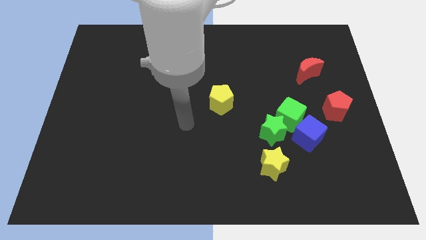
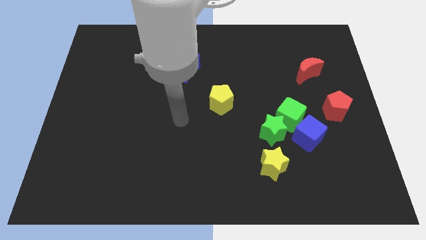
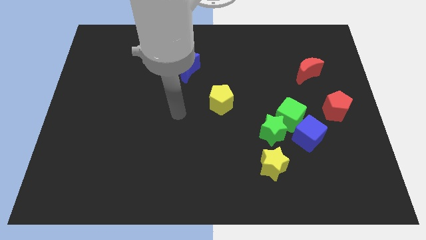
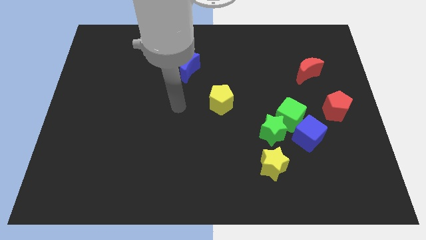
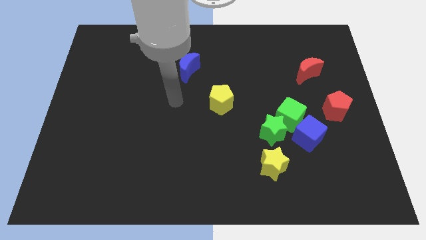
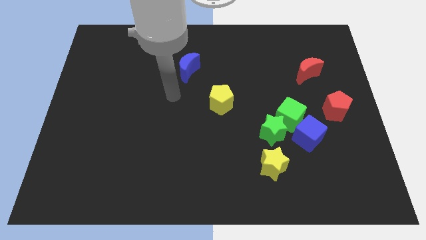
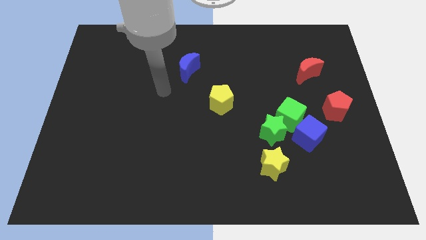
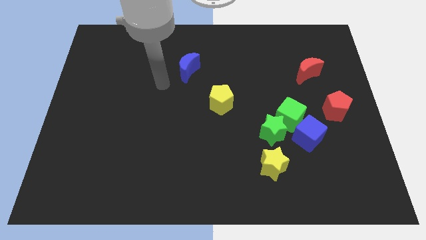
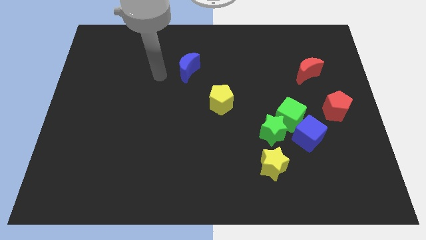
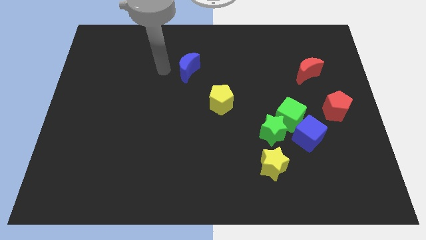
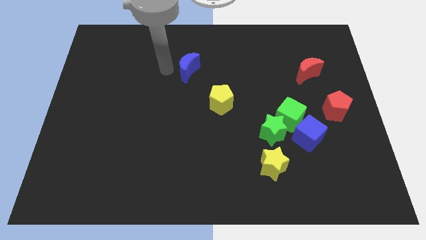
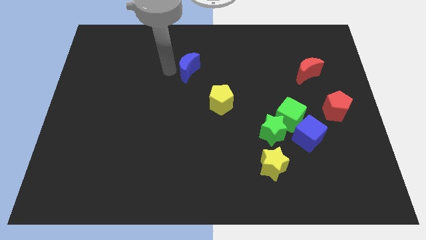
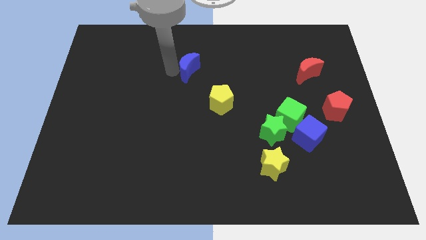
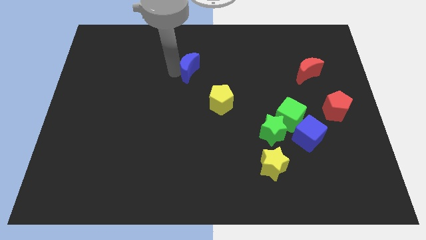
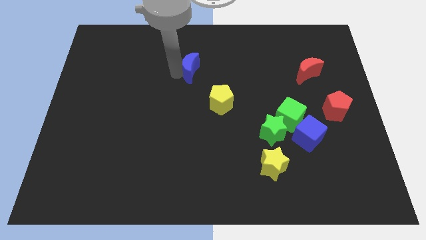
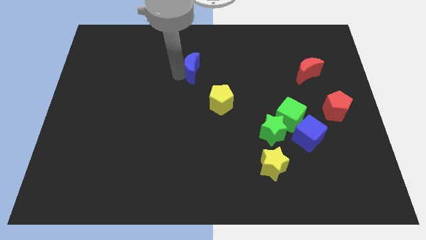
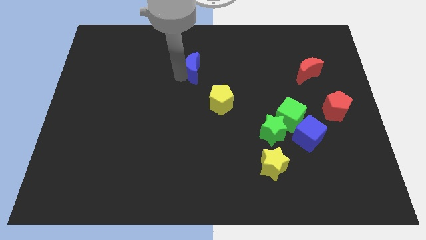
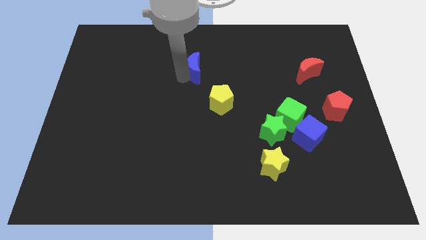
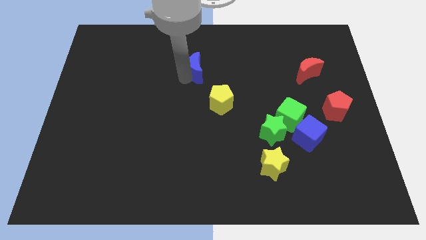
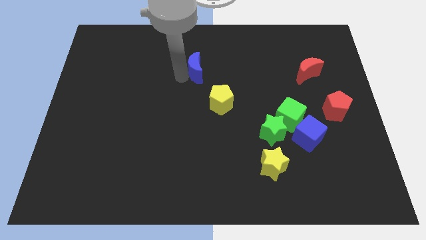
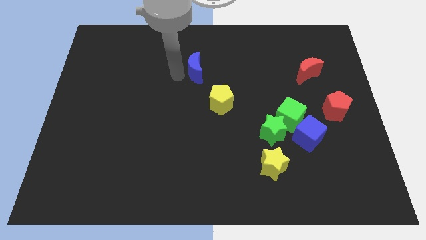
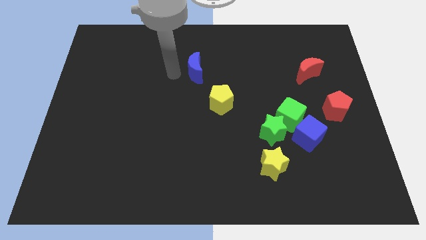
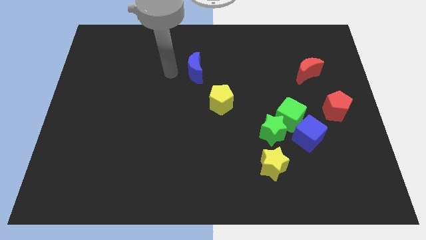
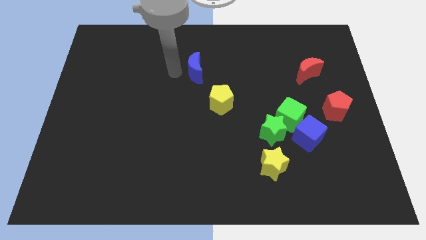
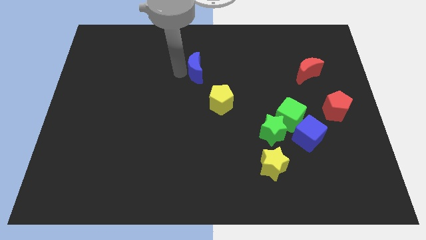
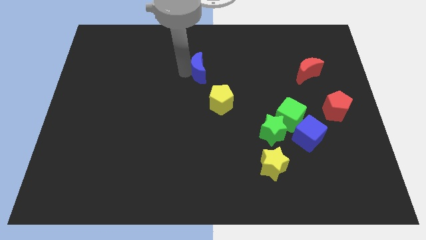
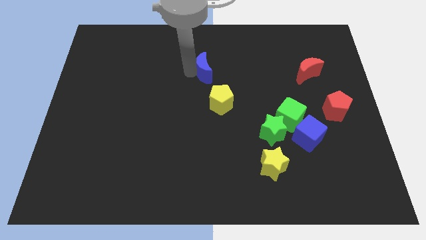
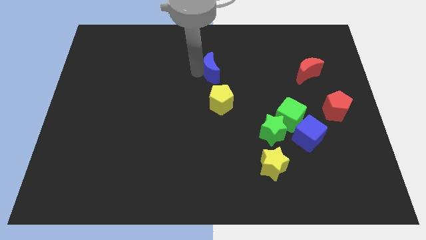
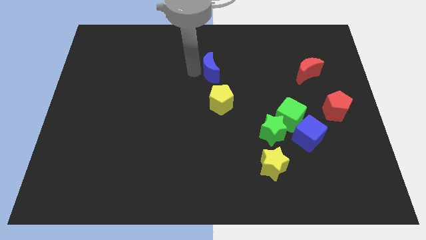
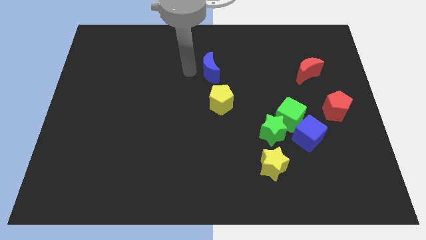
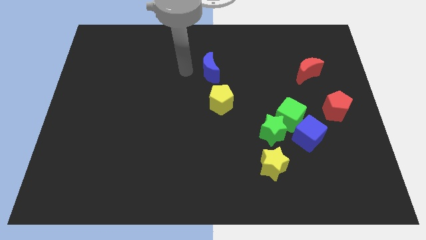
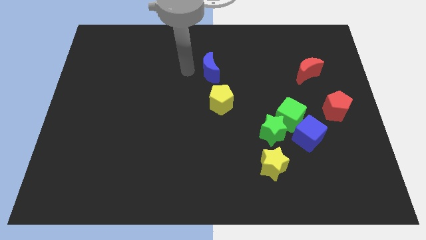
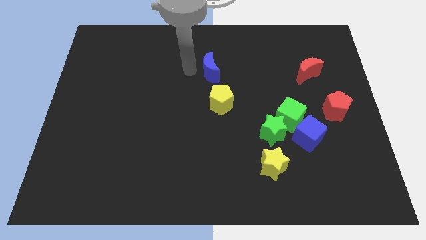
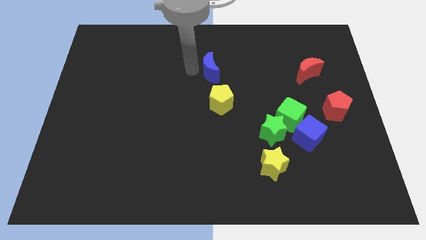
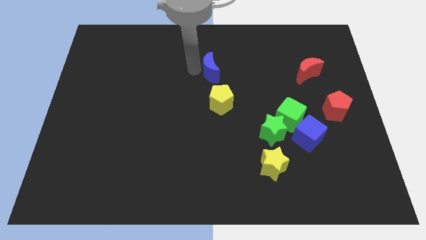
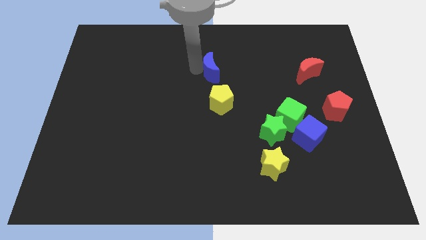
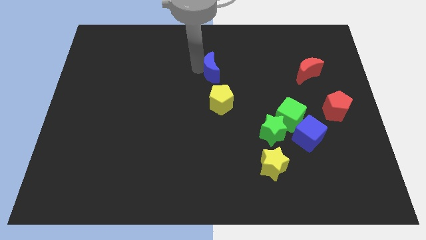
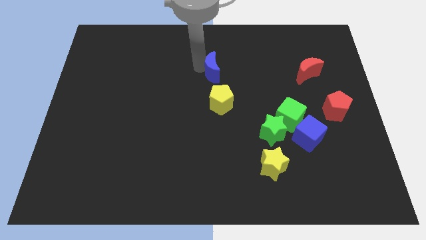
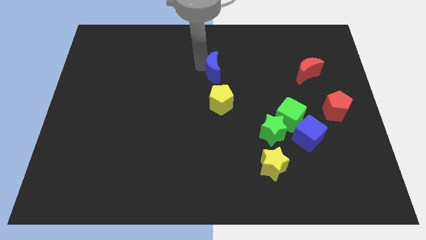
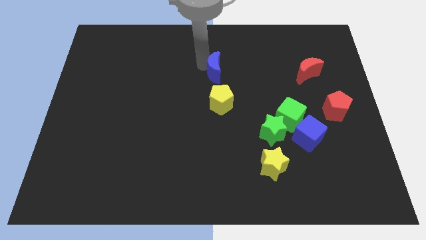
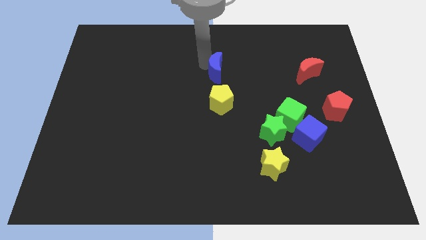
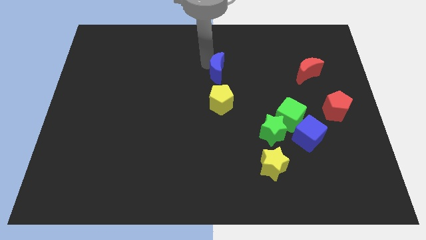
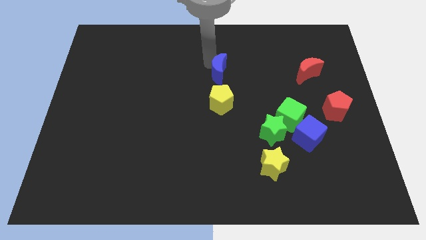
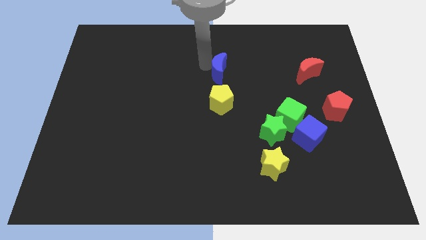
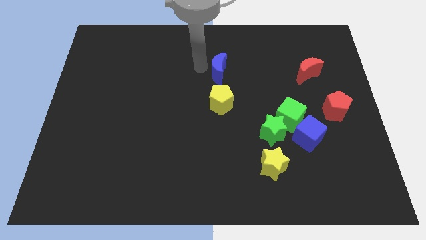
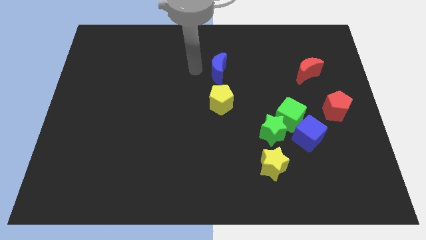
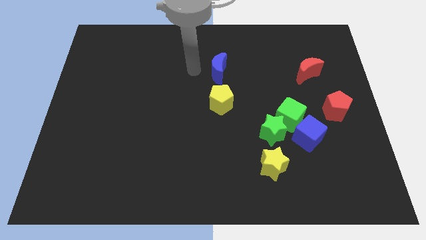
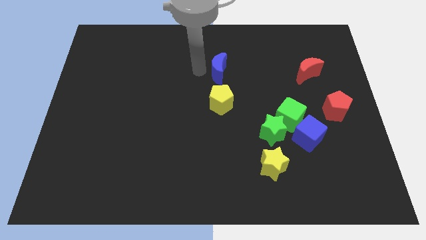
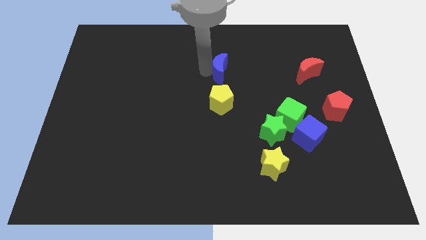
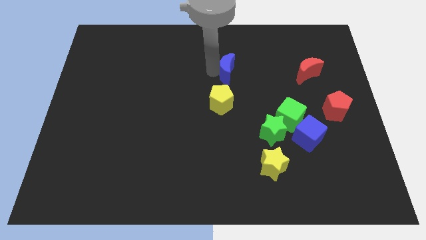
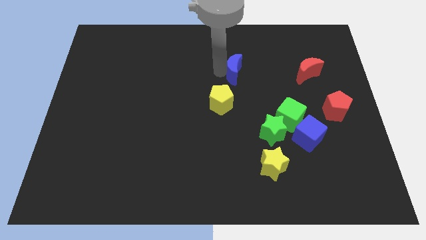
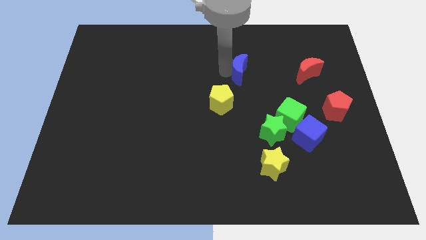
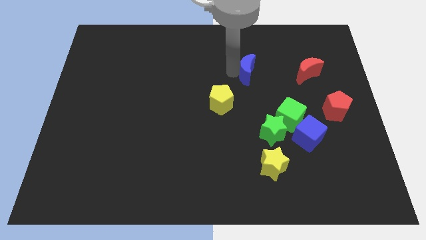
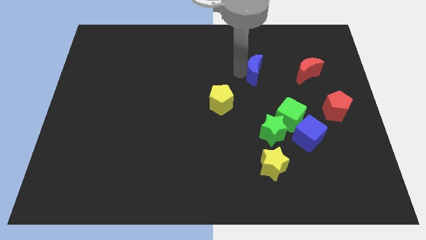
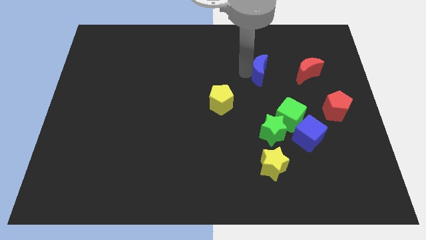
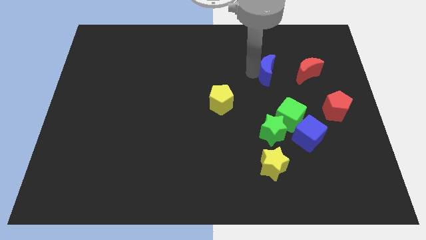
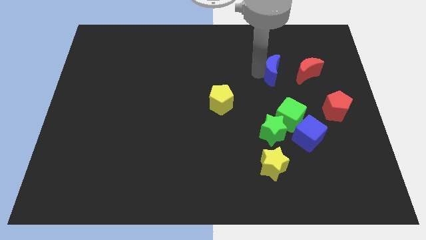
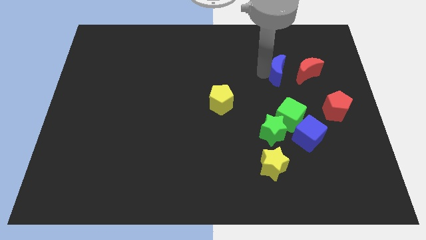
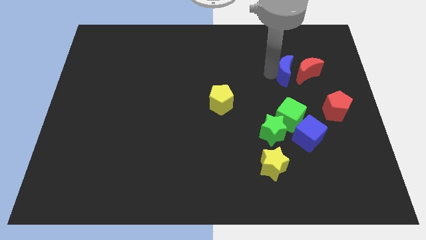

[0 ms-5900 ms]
push the blue moon close to the red moon

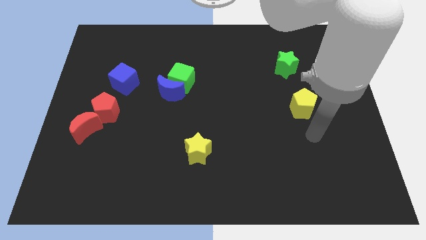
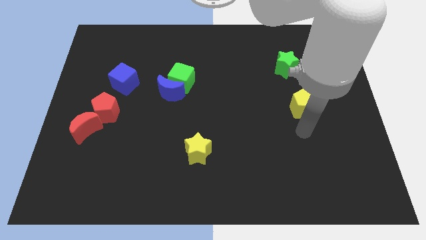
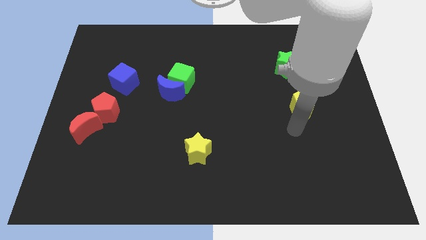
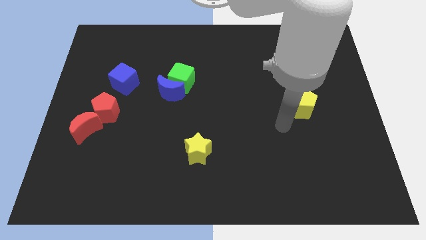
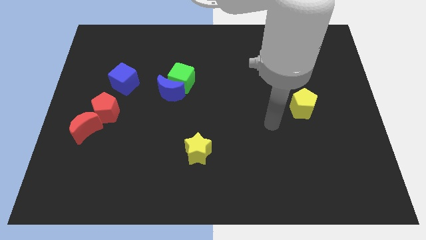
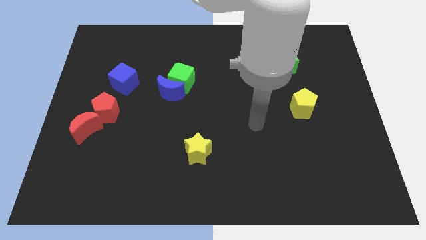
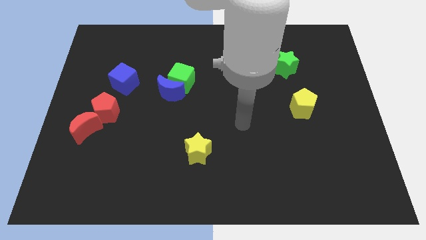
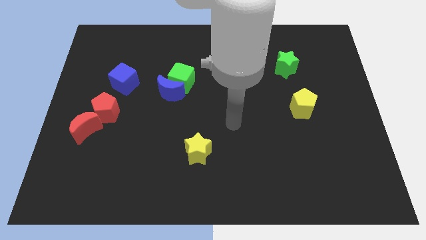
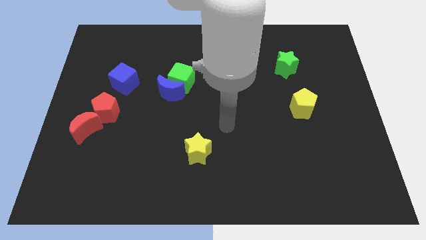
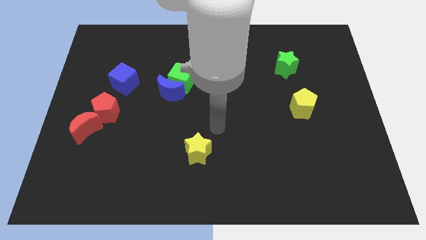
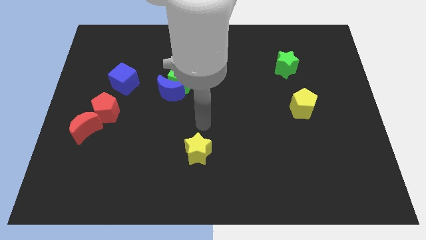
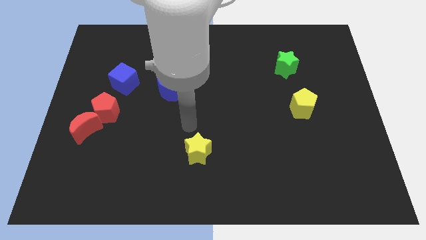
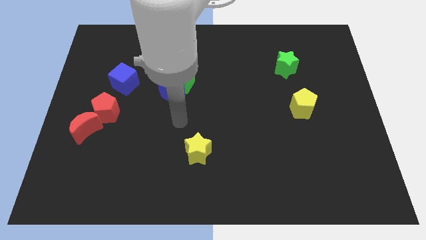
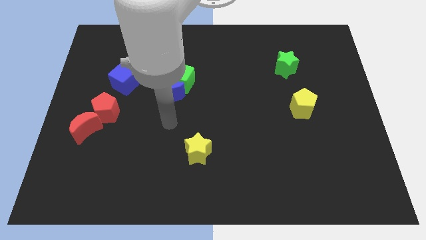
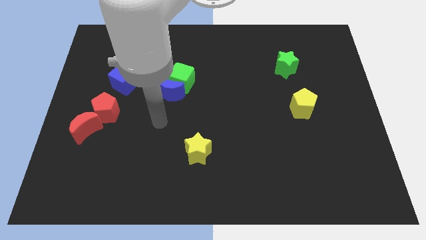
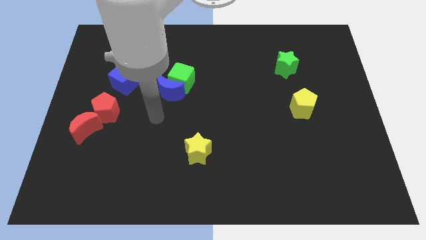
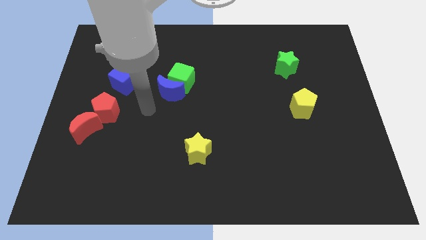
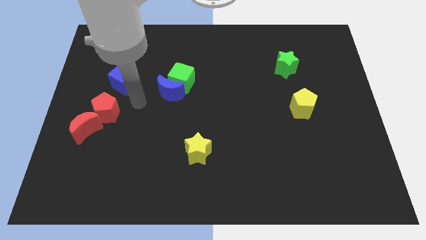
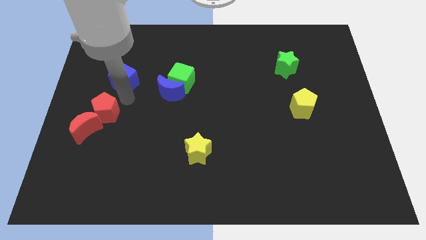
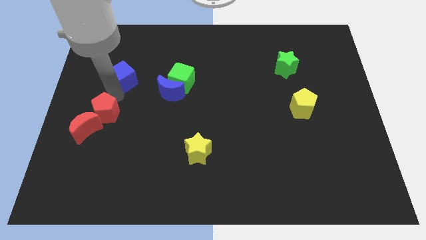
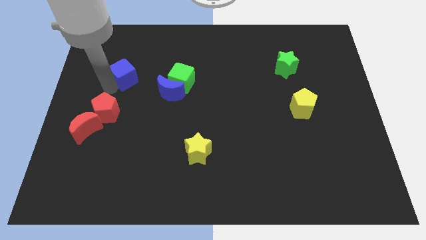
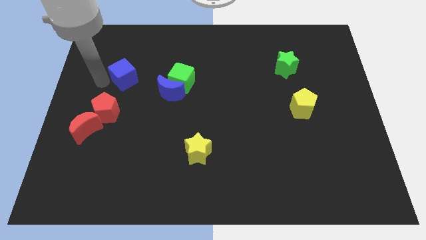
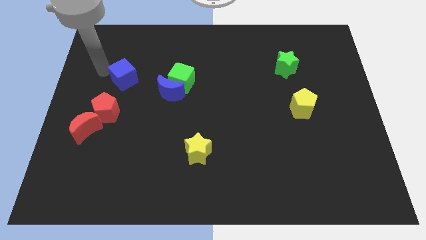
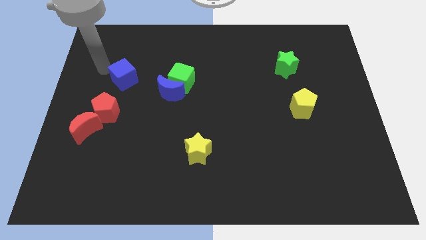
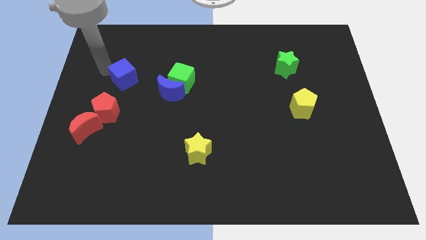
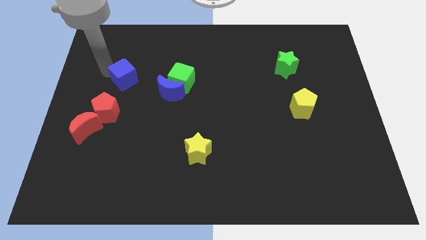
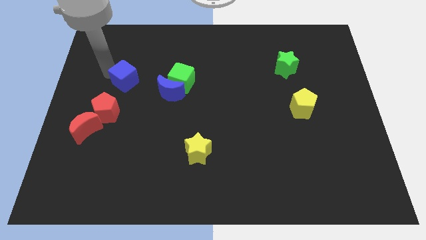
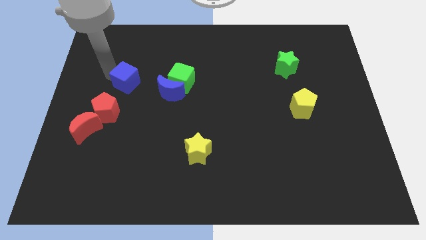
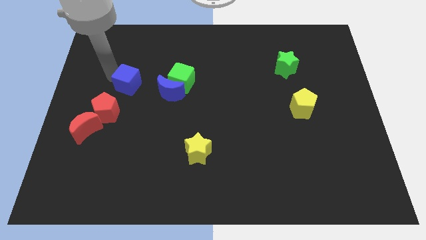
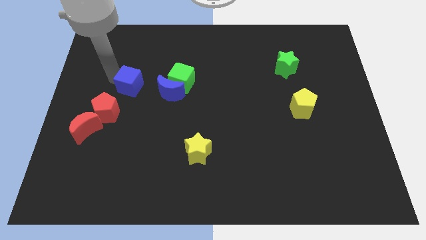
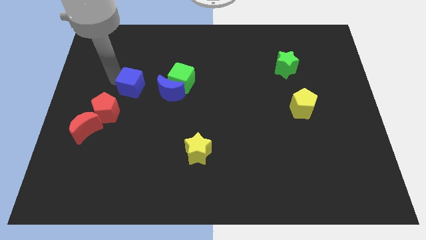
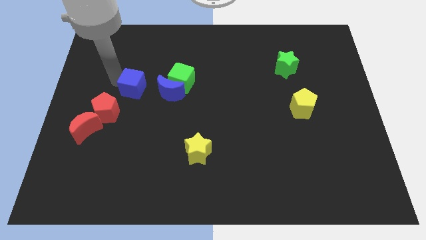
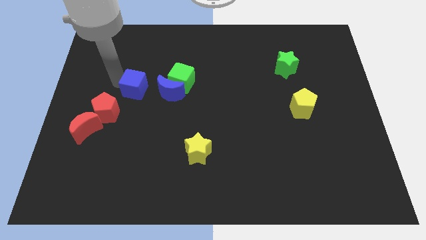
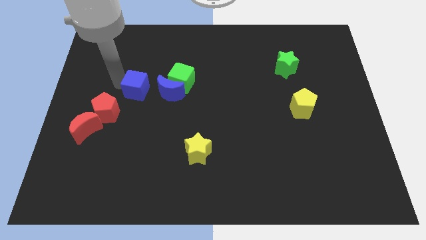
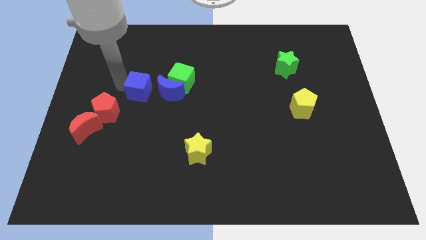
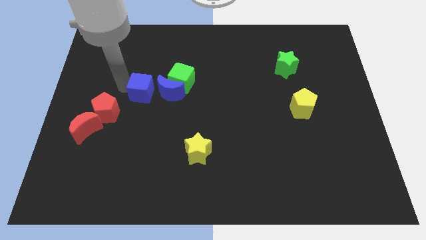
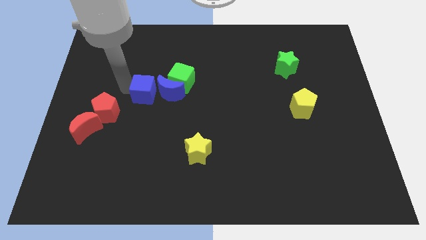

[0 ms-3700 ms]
put the blue cube towards the blue moon
